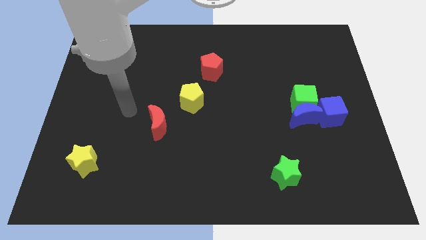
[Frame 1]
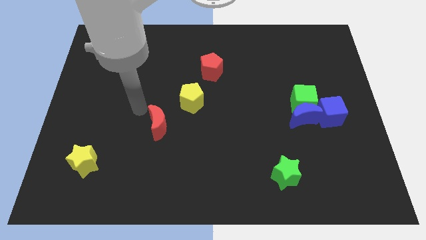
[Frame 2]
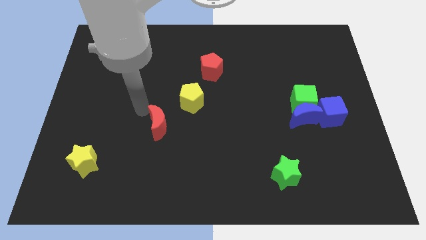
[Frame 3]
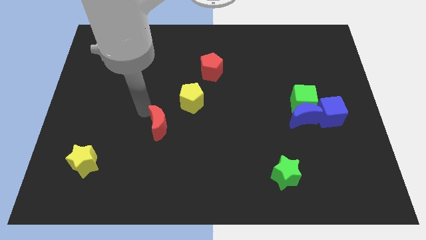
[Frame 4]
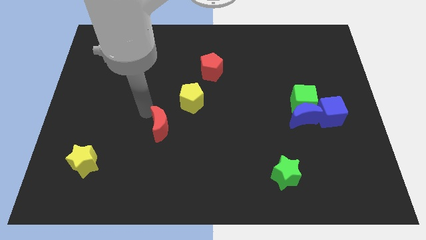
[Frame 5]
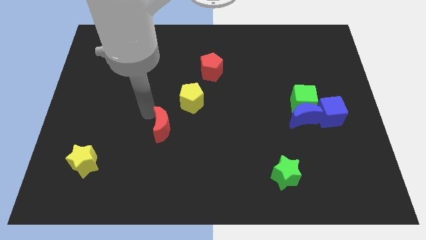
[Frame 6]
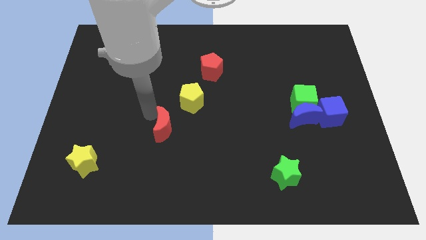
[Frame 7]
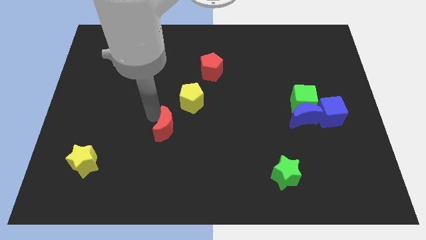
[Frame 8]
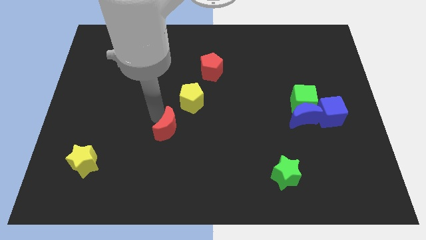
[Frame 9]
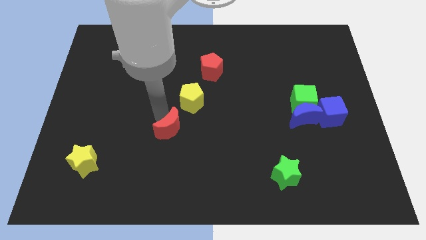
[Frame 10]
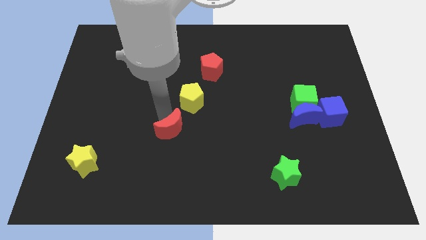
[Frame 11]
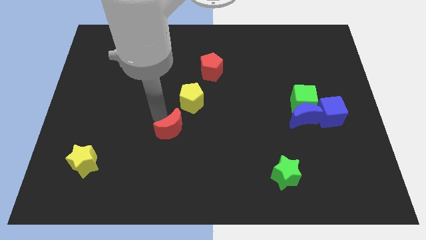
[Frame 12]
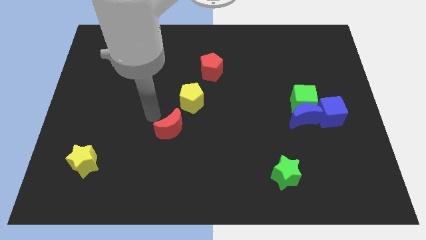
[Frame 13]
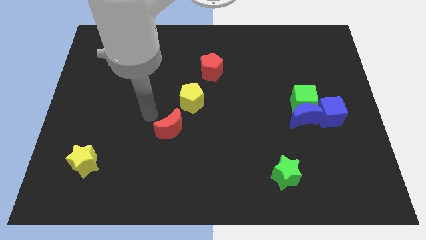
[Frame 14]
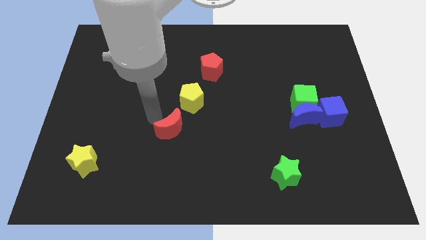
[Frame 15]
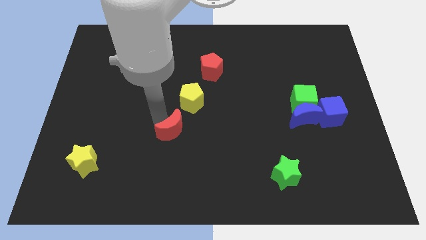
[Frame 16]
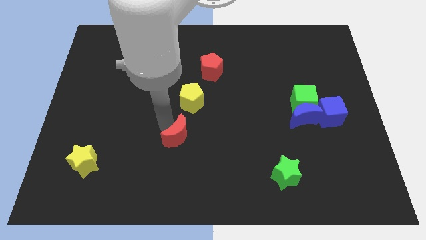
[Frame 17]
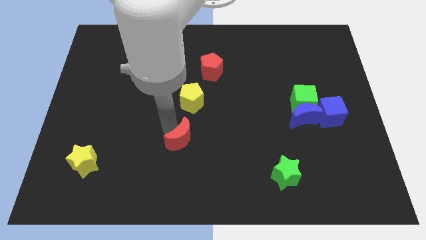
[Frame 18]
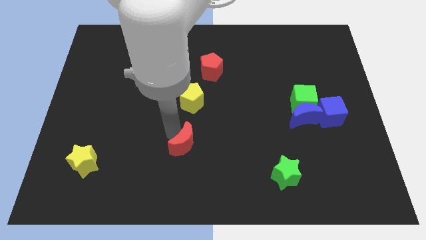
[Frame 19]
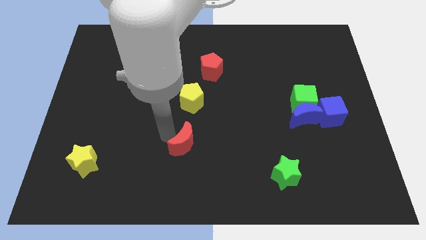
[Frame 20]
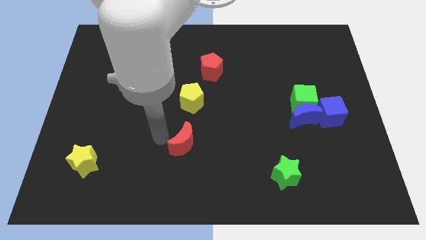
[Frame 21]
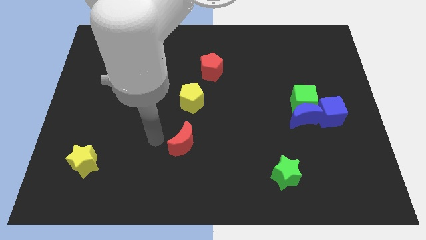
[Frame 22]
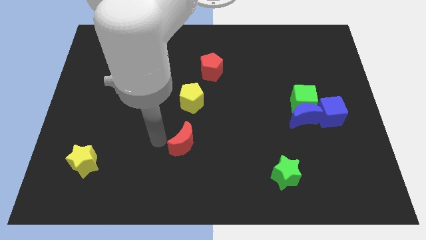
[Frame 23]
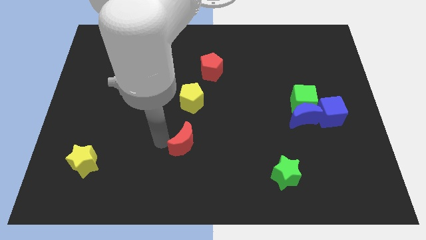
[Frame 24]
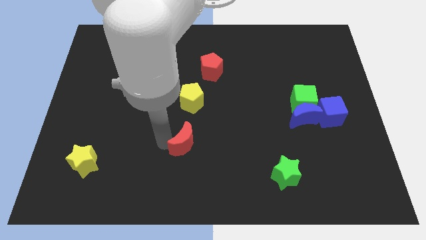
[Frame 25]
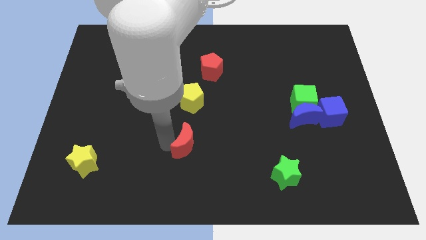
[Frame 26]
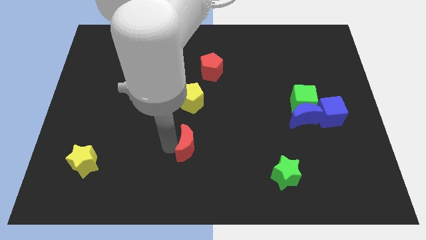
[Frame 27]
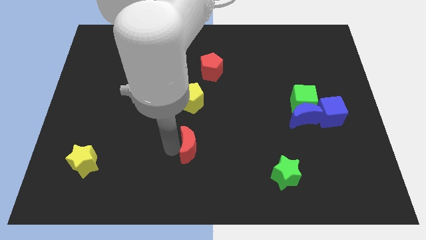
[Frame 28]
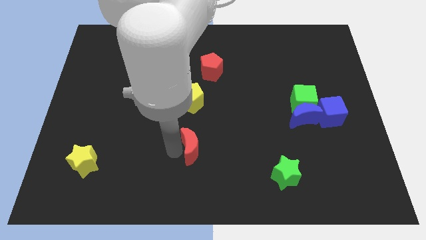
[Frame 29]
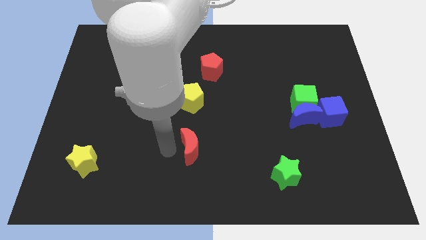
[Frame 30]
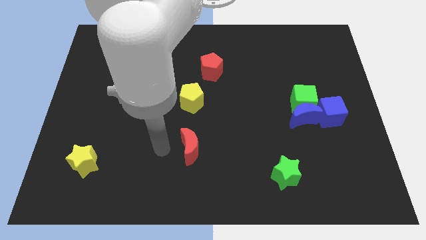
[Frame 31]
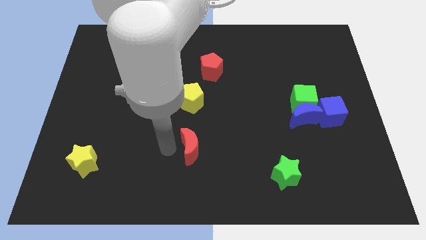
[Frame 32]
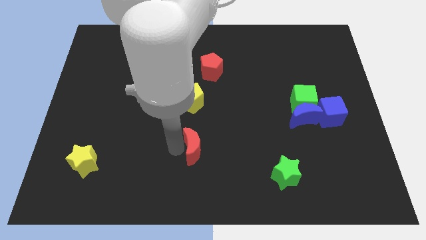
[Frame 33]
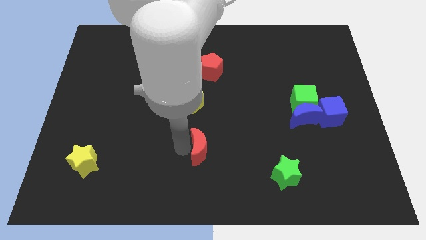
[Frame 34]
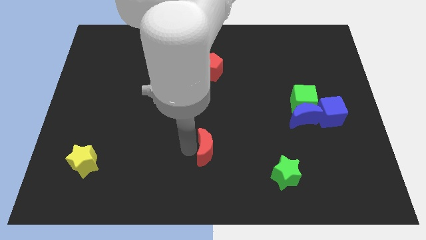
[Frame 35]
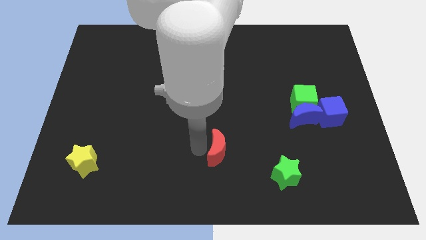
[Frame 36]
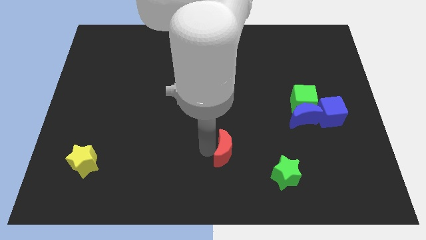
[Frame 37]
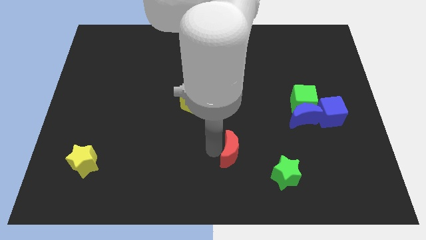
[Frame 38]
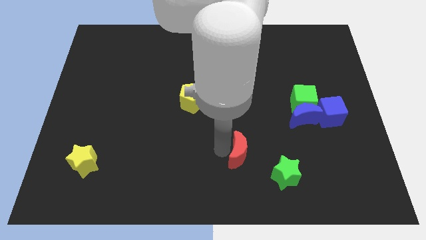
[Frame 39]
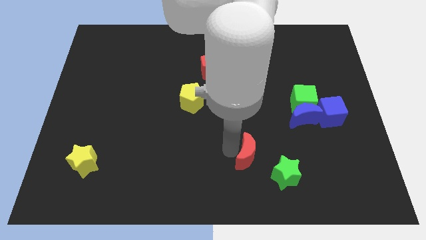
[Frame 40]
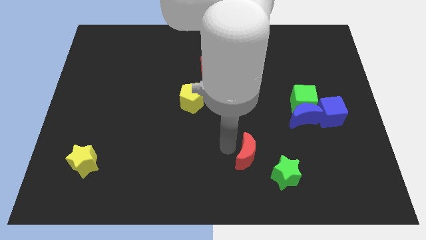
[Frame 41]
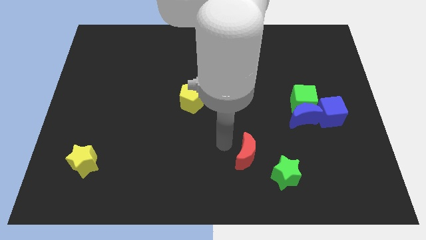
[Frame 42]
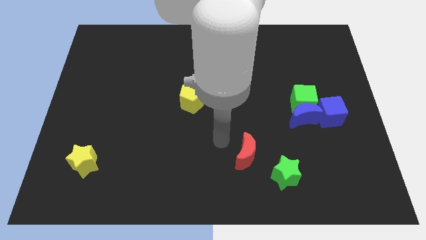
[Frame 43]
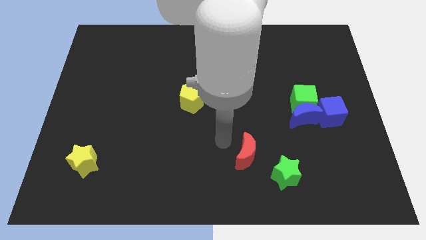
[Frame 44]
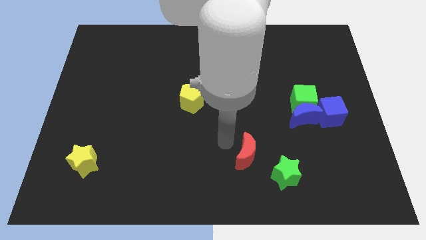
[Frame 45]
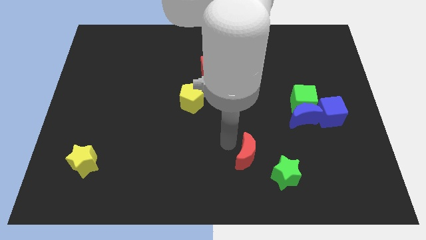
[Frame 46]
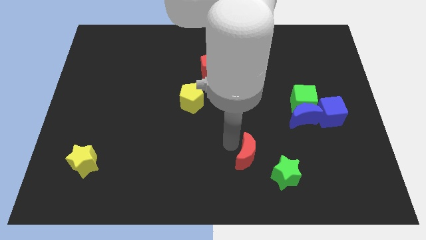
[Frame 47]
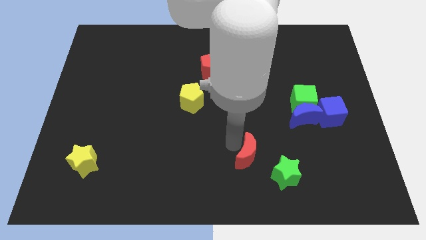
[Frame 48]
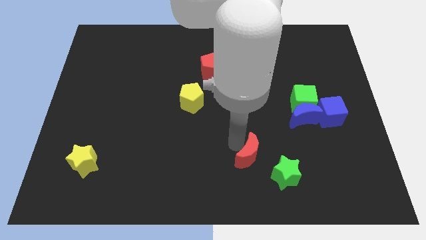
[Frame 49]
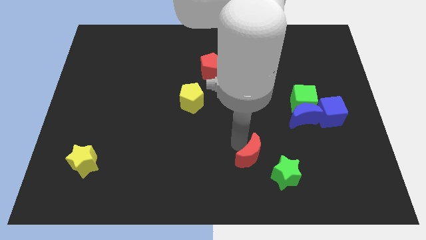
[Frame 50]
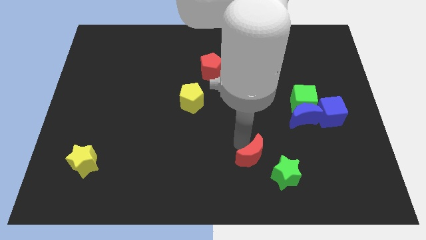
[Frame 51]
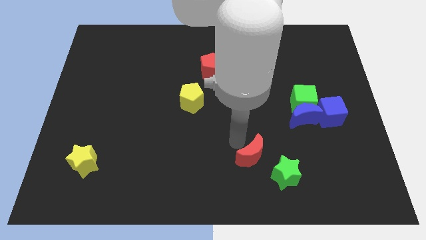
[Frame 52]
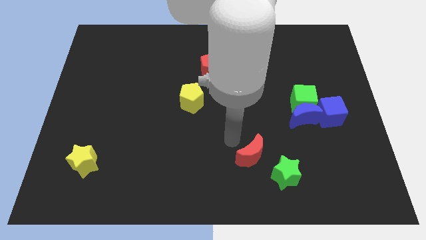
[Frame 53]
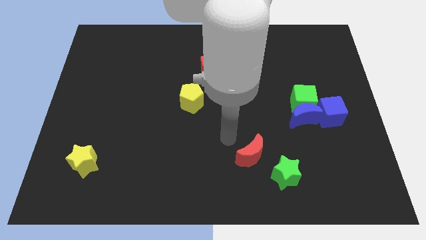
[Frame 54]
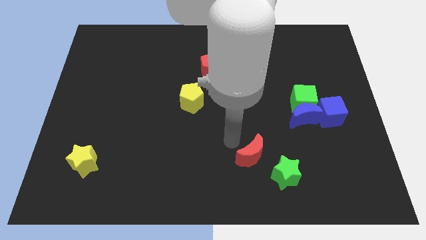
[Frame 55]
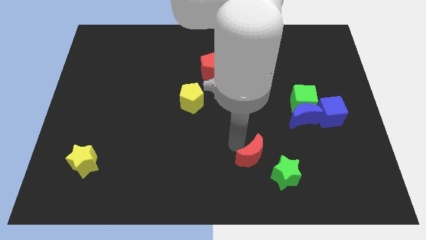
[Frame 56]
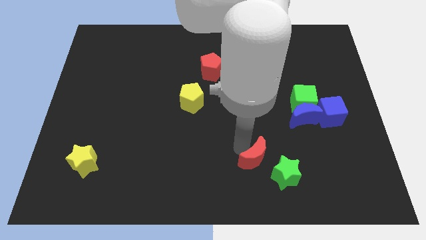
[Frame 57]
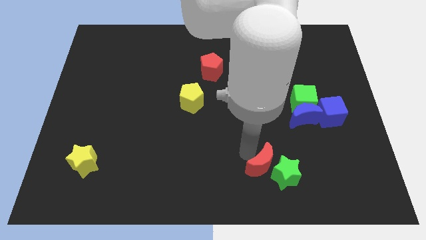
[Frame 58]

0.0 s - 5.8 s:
put the red moon towards the green star

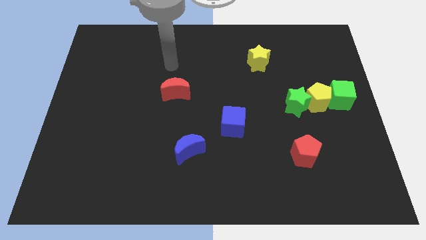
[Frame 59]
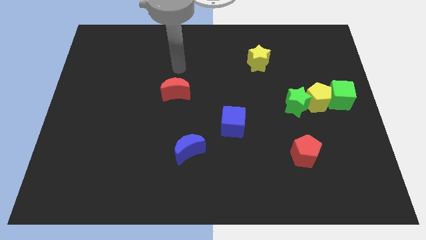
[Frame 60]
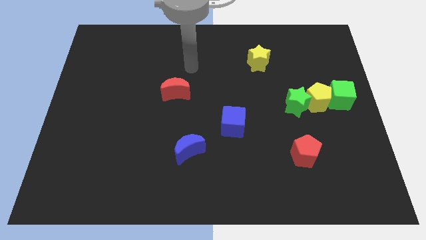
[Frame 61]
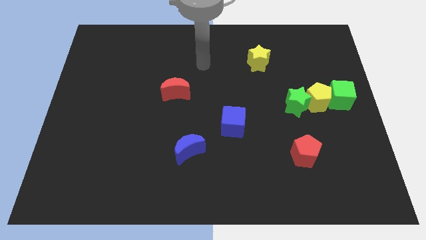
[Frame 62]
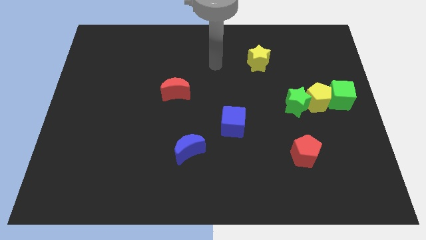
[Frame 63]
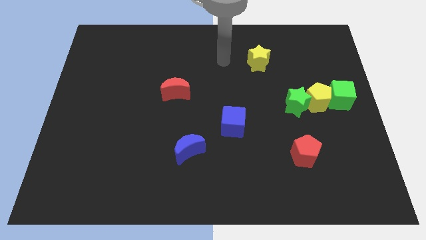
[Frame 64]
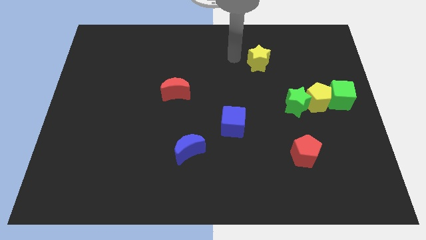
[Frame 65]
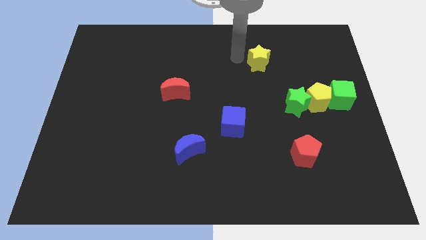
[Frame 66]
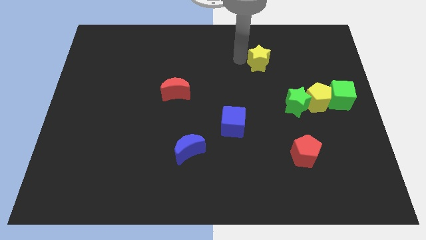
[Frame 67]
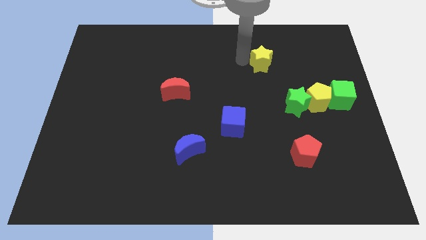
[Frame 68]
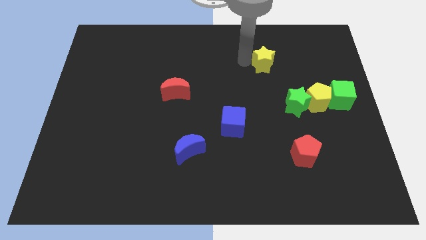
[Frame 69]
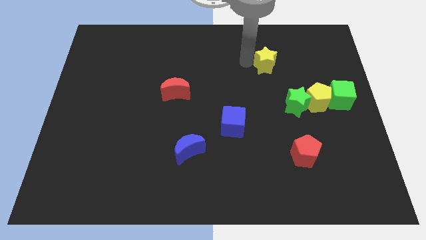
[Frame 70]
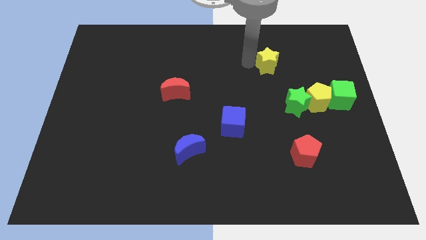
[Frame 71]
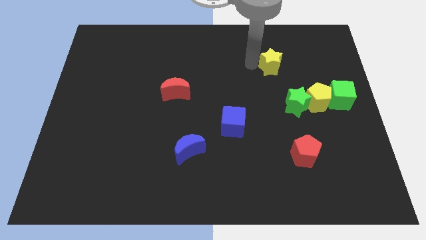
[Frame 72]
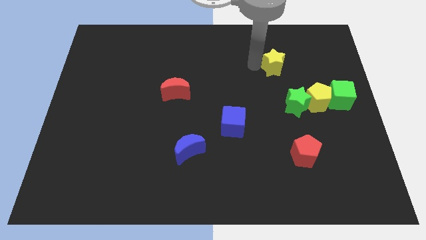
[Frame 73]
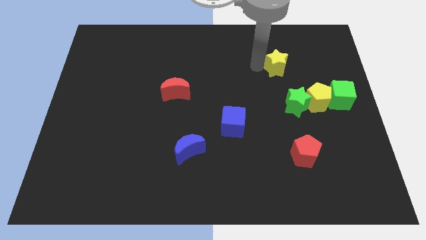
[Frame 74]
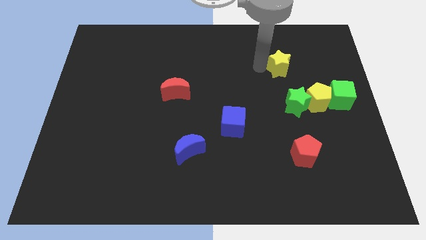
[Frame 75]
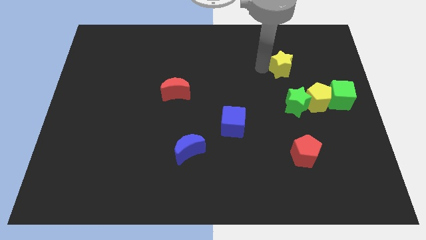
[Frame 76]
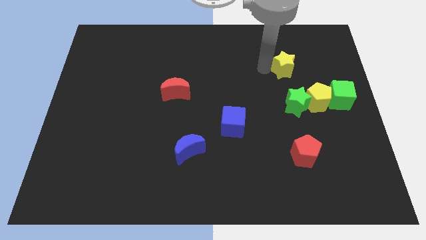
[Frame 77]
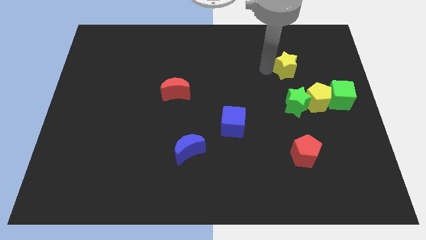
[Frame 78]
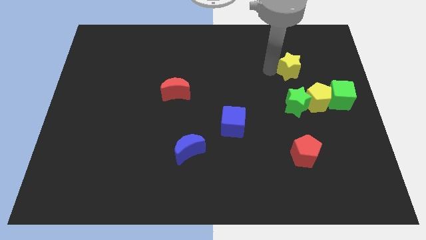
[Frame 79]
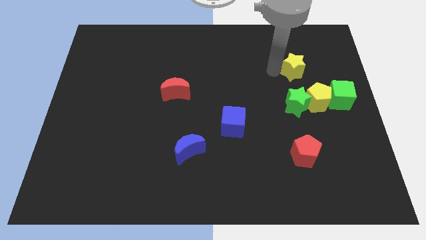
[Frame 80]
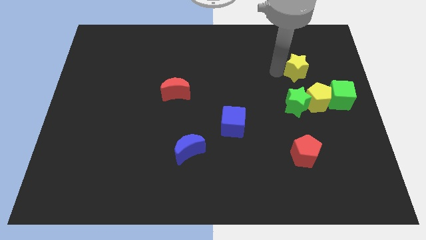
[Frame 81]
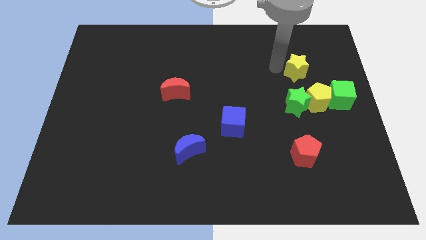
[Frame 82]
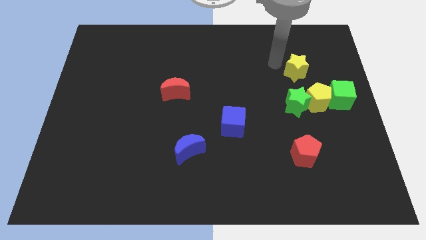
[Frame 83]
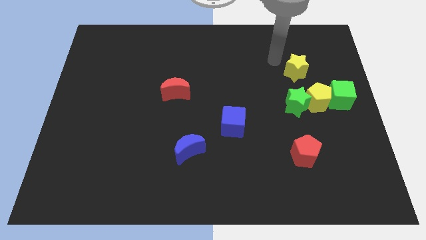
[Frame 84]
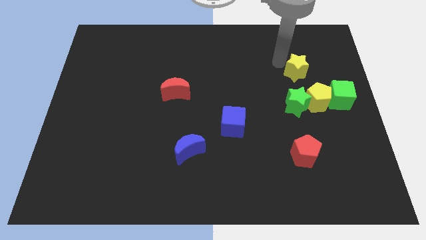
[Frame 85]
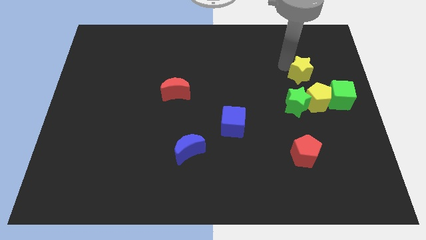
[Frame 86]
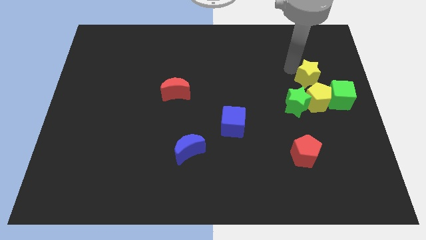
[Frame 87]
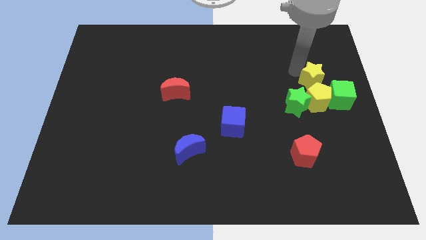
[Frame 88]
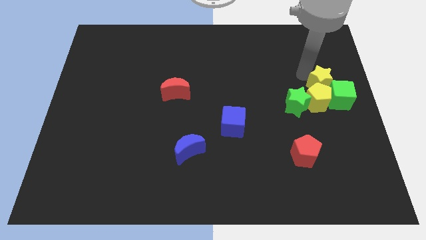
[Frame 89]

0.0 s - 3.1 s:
slide the yellow star close to the green cube
